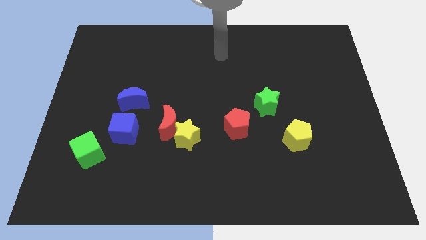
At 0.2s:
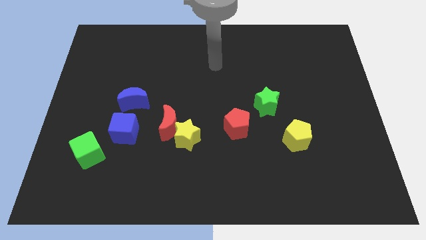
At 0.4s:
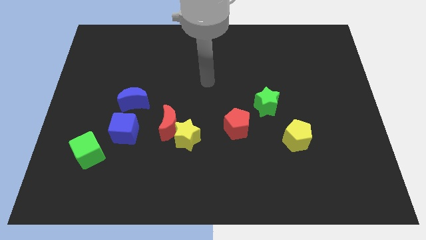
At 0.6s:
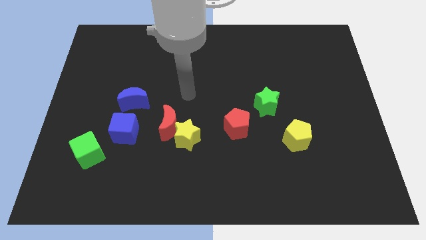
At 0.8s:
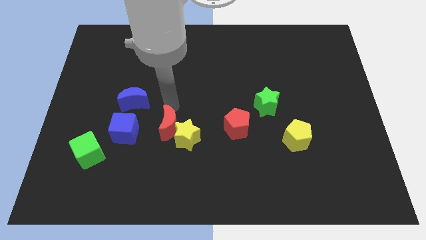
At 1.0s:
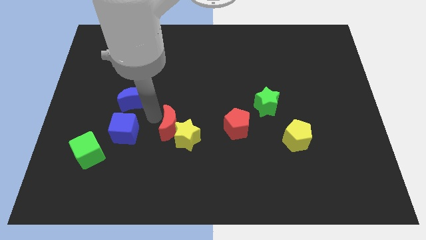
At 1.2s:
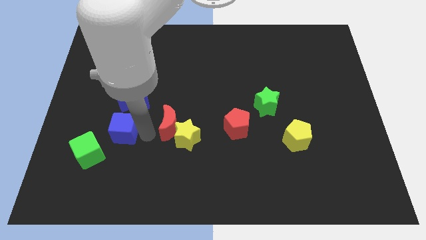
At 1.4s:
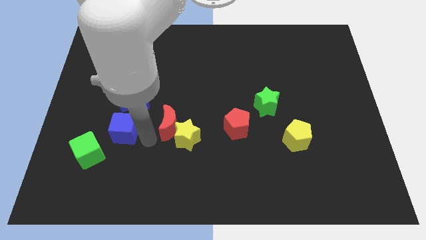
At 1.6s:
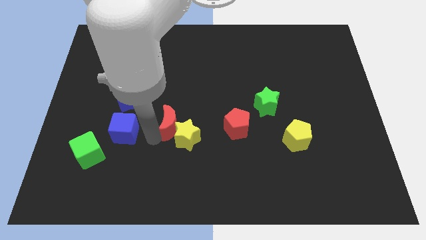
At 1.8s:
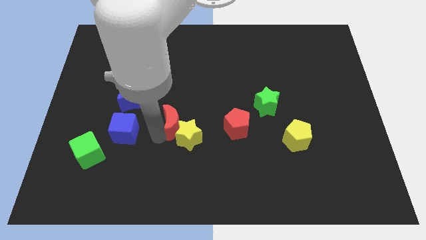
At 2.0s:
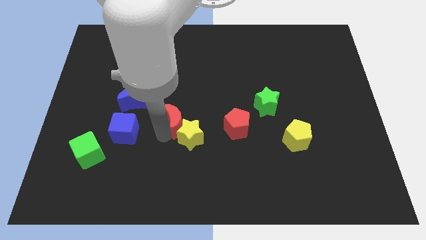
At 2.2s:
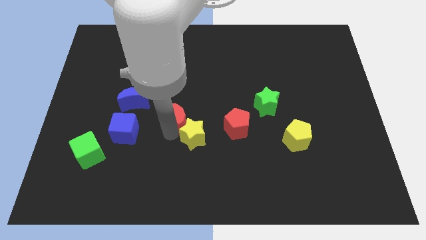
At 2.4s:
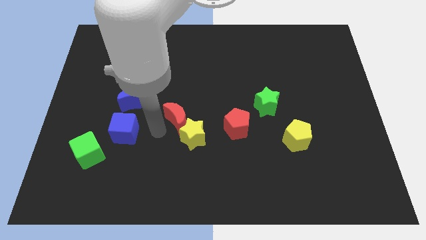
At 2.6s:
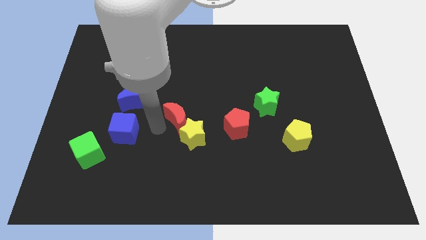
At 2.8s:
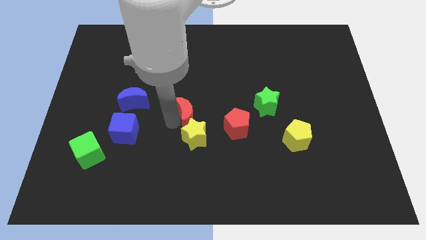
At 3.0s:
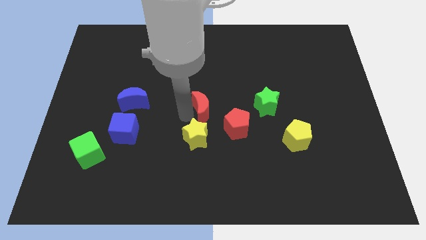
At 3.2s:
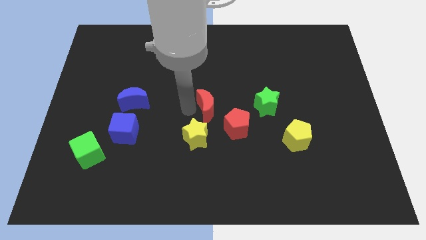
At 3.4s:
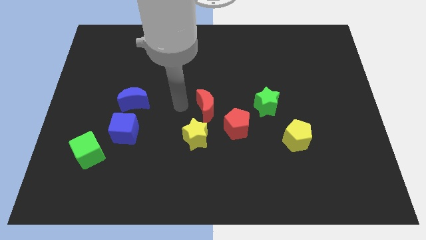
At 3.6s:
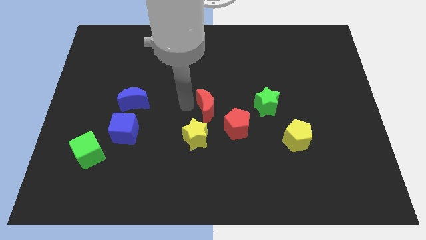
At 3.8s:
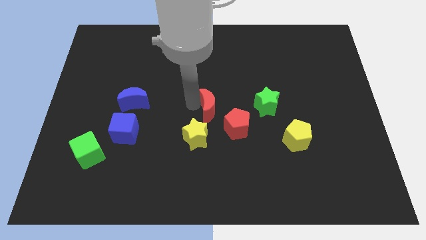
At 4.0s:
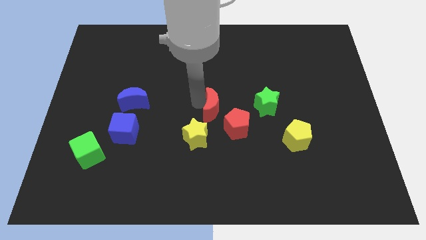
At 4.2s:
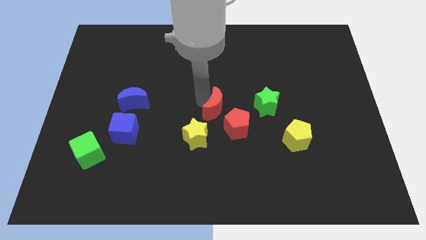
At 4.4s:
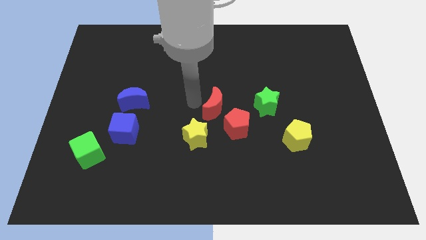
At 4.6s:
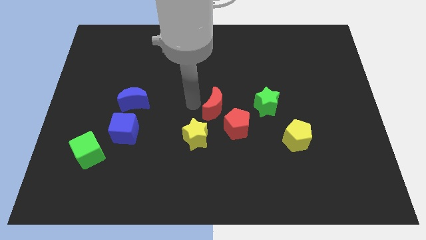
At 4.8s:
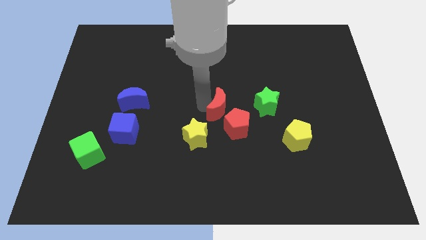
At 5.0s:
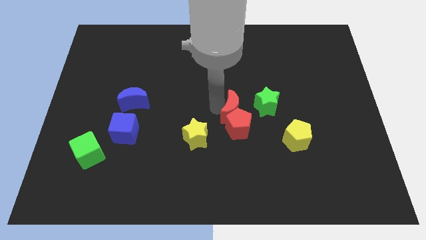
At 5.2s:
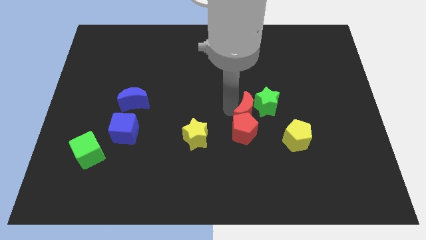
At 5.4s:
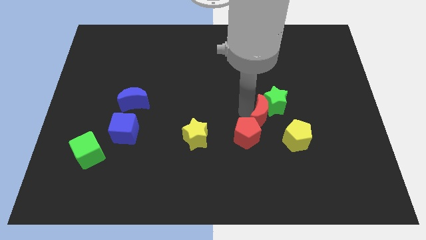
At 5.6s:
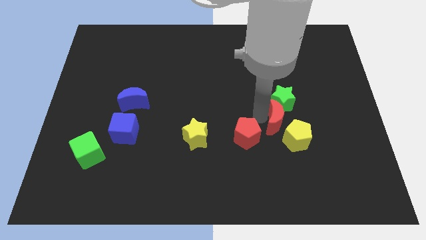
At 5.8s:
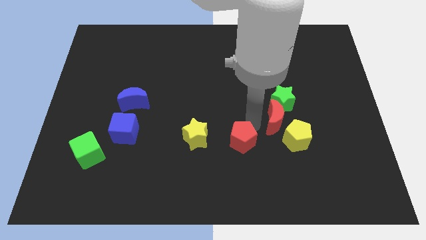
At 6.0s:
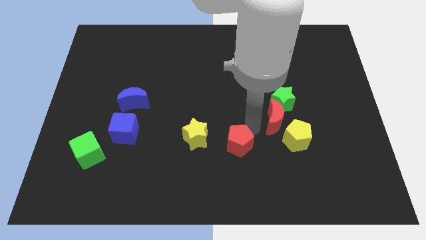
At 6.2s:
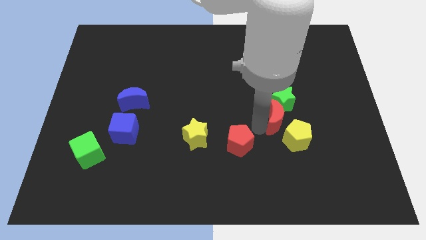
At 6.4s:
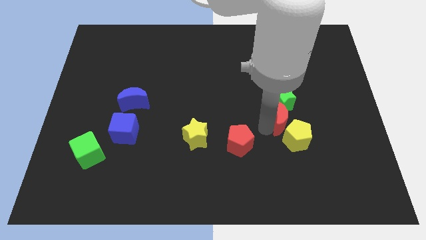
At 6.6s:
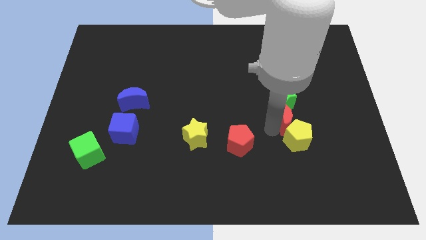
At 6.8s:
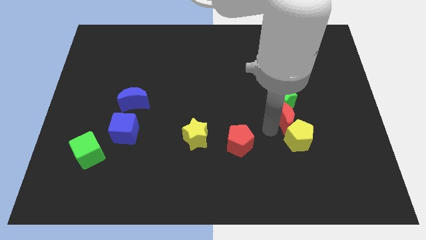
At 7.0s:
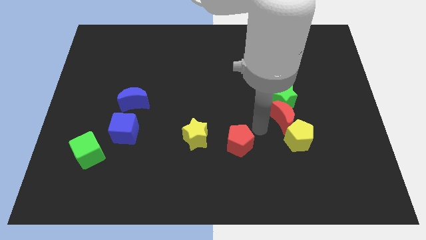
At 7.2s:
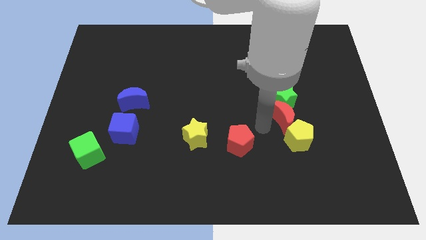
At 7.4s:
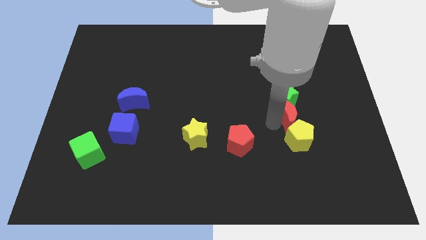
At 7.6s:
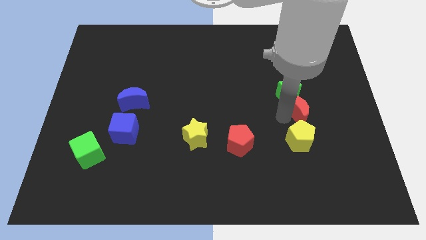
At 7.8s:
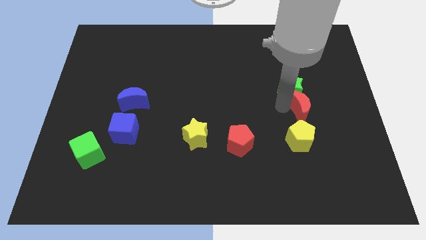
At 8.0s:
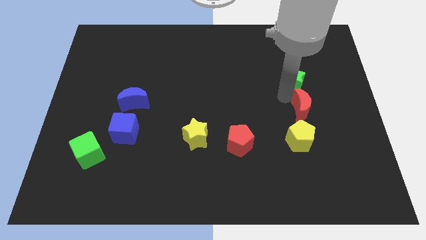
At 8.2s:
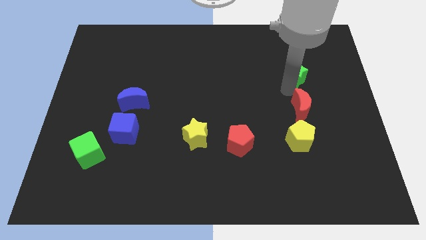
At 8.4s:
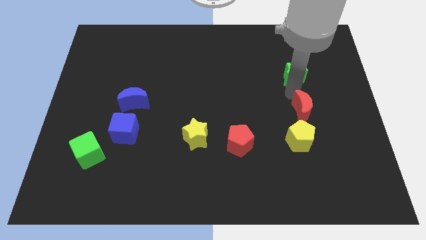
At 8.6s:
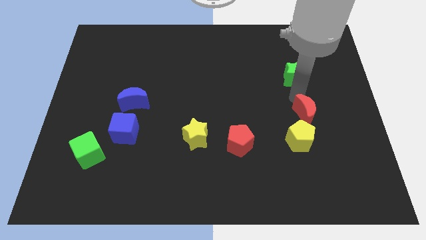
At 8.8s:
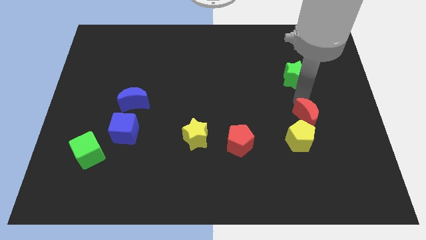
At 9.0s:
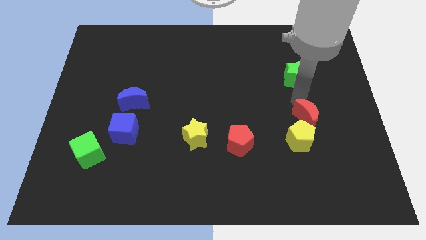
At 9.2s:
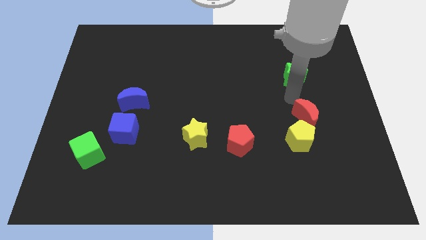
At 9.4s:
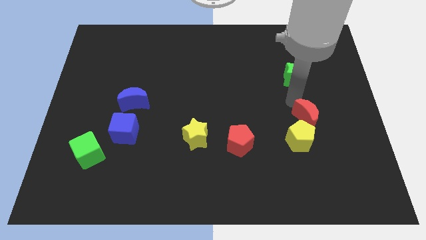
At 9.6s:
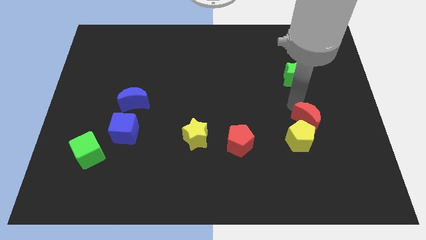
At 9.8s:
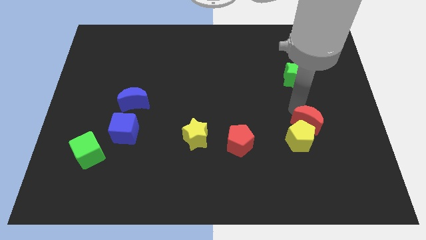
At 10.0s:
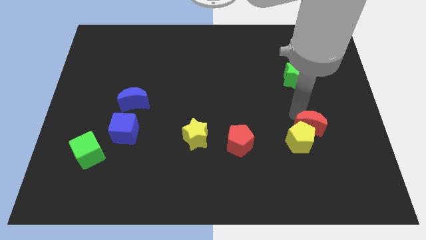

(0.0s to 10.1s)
slide the red moon to the right of the yellow pentagon

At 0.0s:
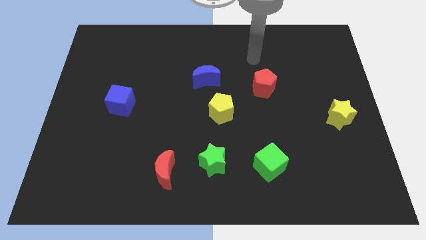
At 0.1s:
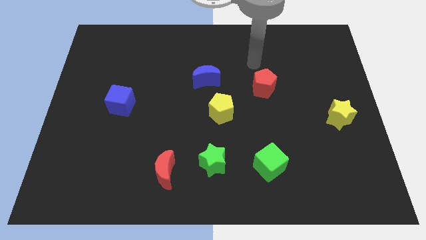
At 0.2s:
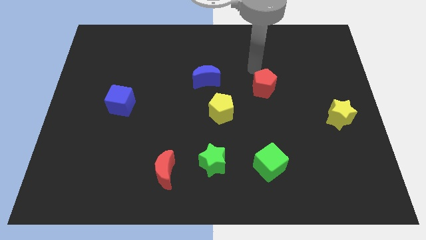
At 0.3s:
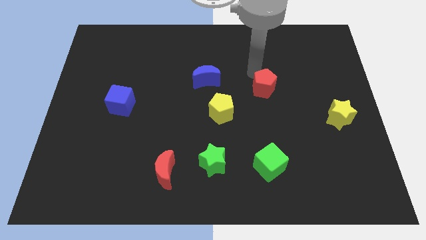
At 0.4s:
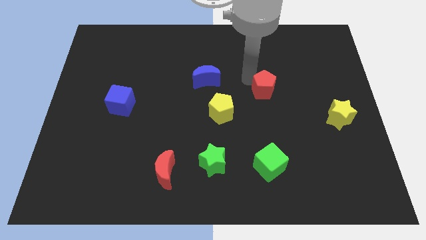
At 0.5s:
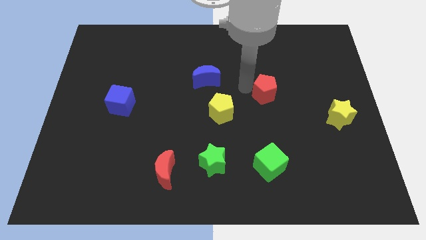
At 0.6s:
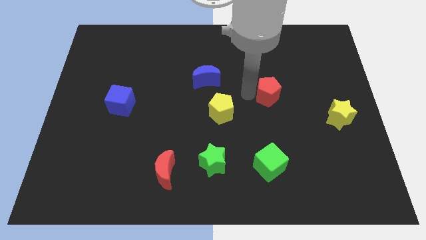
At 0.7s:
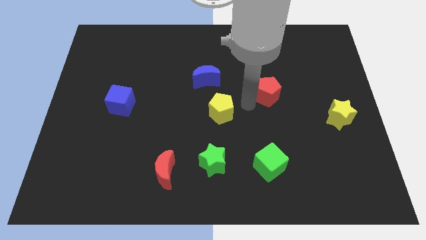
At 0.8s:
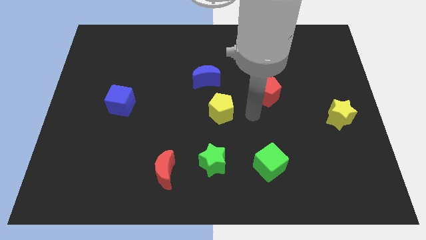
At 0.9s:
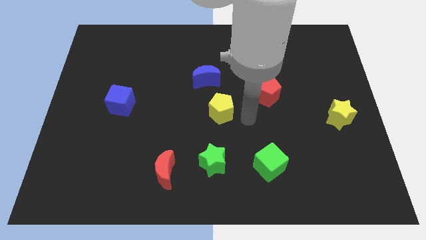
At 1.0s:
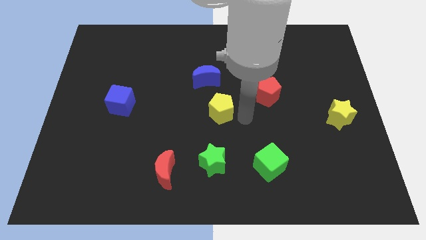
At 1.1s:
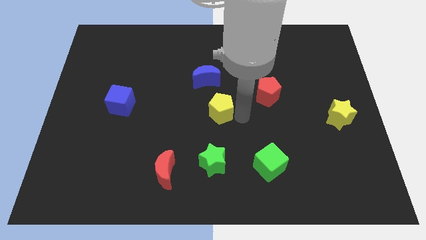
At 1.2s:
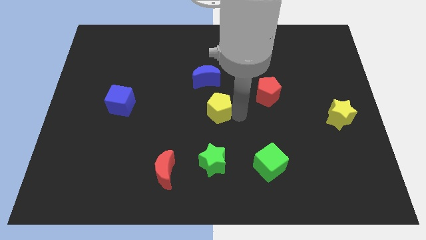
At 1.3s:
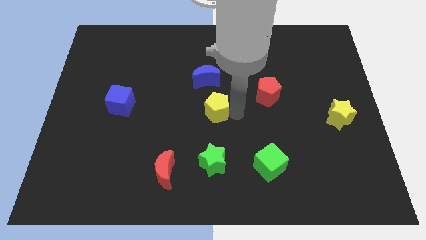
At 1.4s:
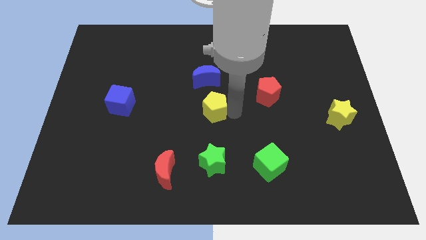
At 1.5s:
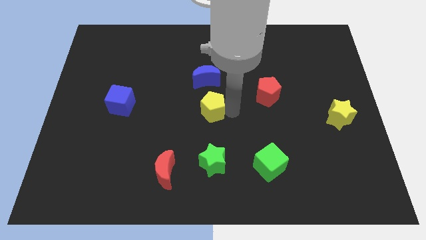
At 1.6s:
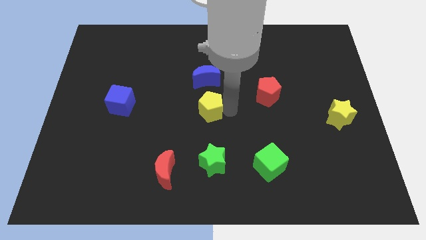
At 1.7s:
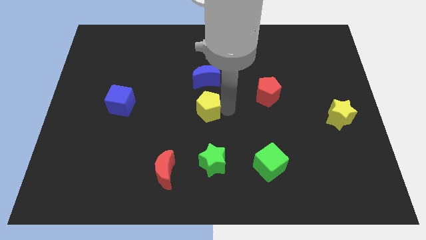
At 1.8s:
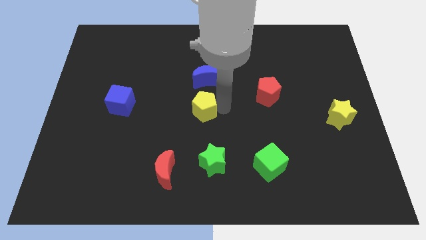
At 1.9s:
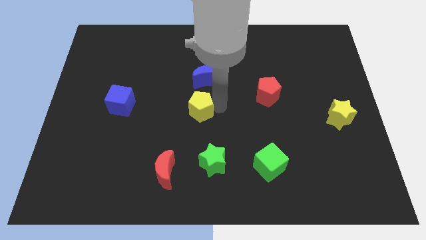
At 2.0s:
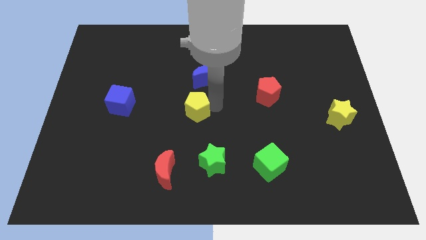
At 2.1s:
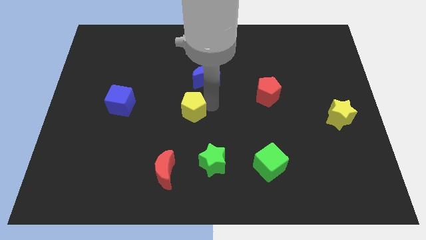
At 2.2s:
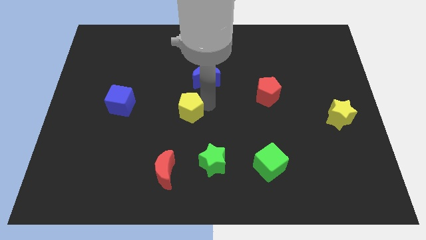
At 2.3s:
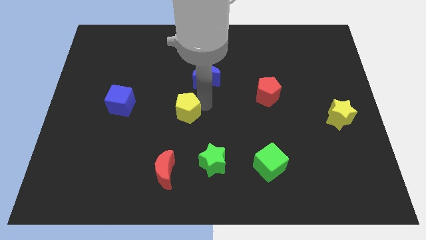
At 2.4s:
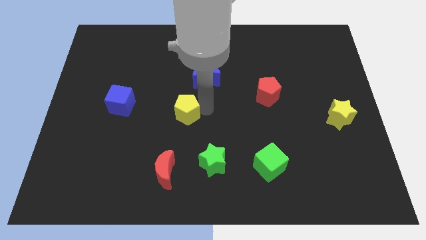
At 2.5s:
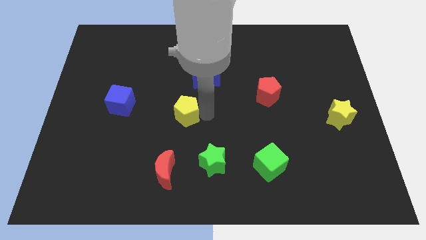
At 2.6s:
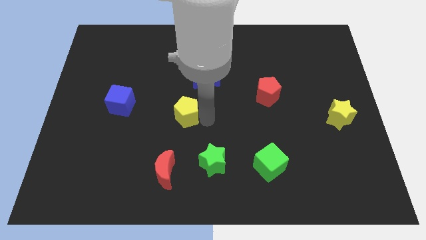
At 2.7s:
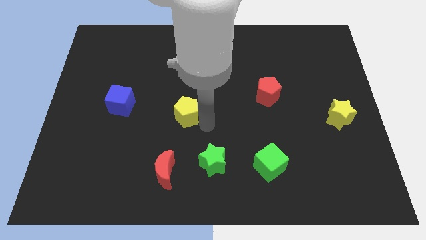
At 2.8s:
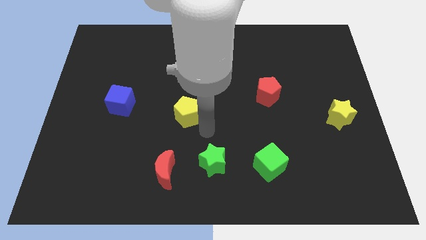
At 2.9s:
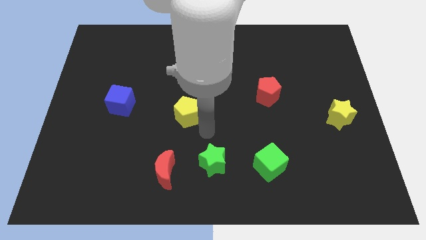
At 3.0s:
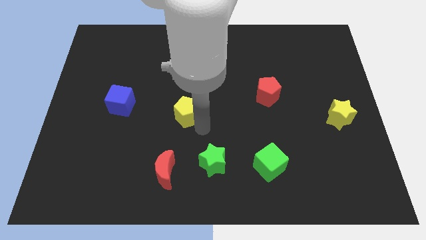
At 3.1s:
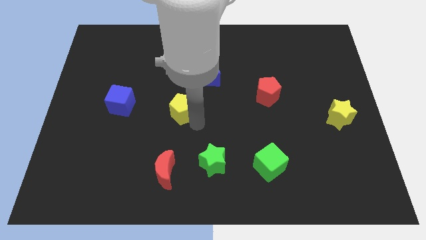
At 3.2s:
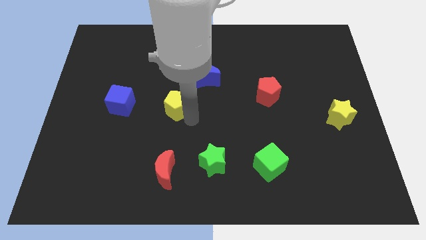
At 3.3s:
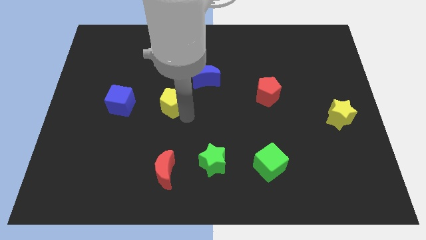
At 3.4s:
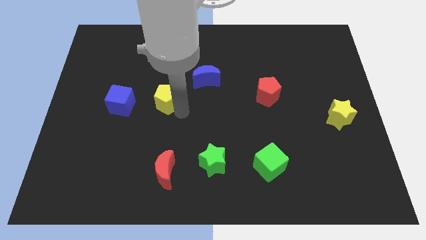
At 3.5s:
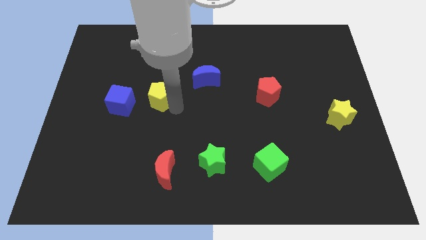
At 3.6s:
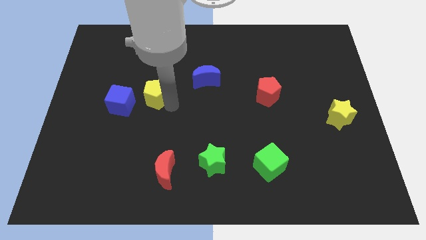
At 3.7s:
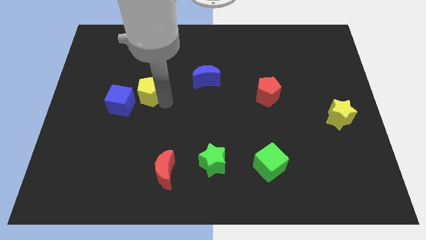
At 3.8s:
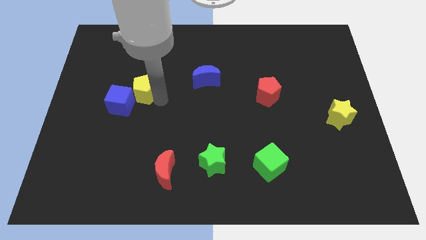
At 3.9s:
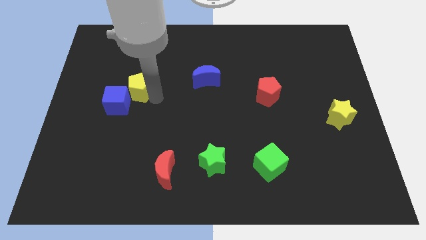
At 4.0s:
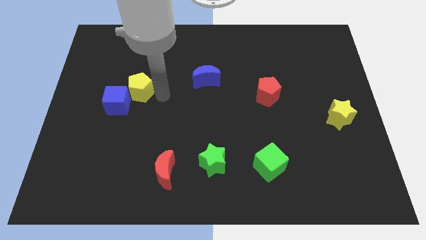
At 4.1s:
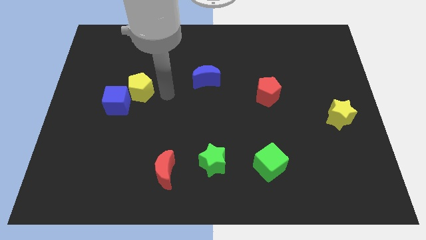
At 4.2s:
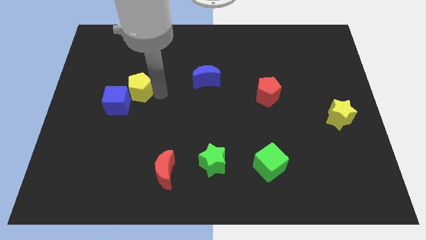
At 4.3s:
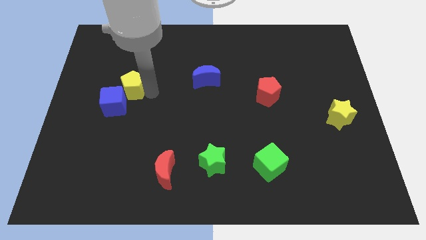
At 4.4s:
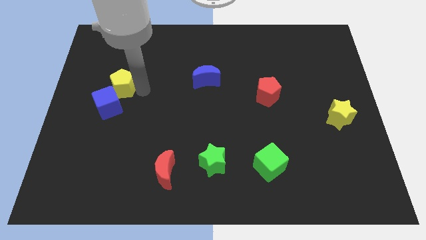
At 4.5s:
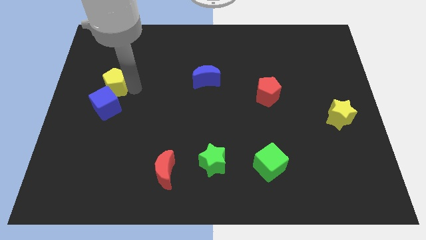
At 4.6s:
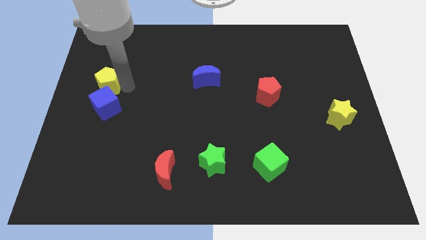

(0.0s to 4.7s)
slide the yellow pentagon diagonally up and to the left of the blue cube
